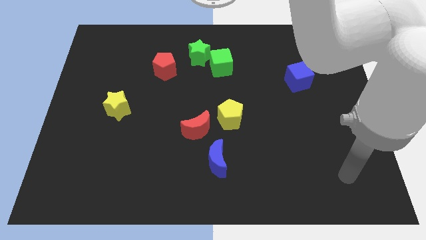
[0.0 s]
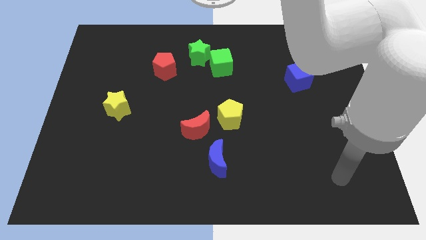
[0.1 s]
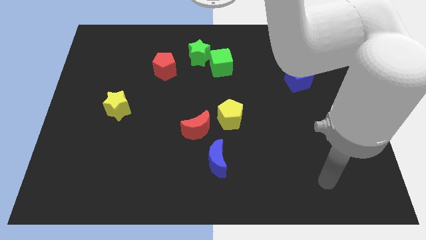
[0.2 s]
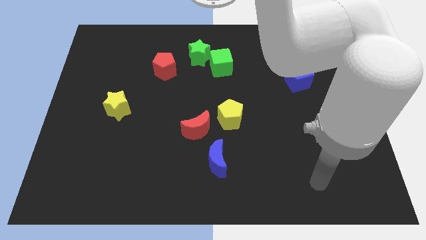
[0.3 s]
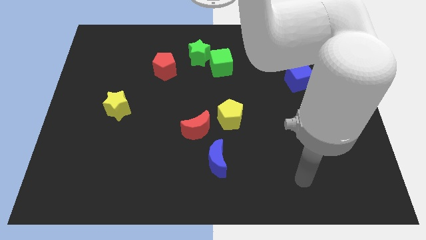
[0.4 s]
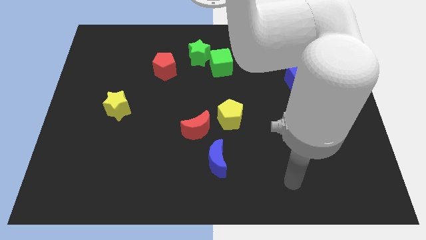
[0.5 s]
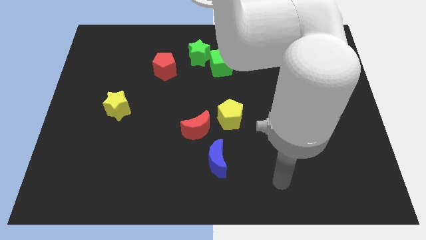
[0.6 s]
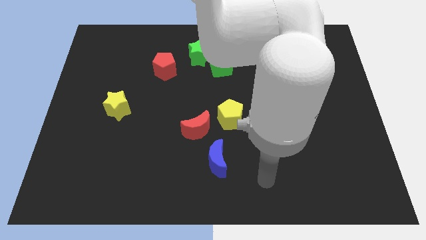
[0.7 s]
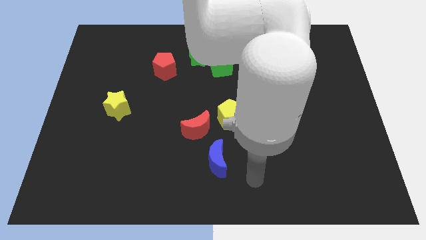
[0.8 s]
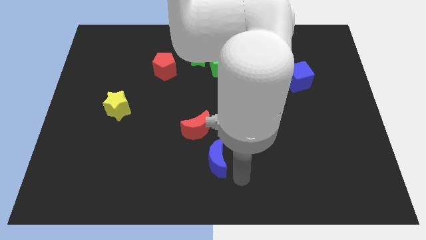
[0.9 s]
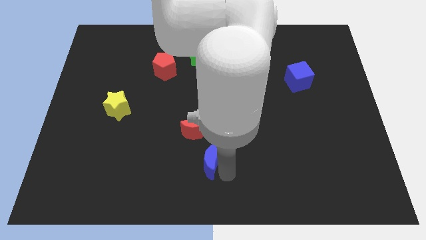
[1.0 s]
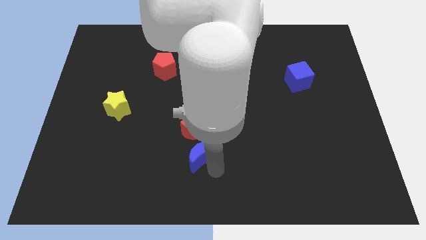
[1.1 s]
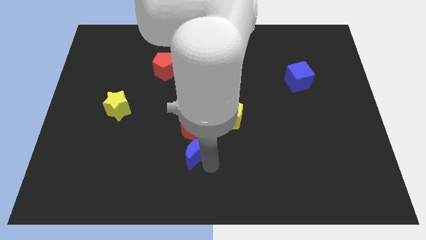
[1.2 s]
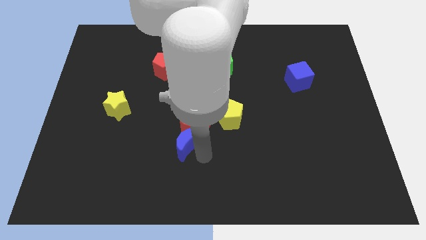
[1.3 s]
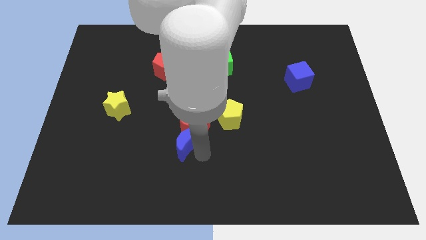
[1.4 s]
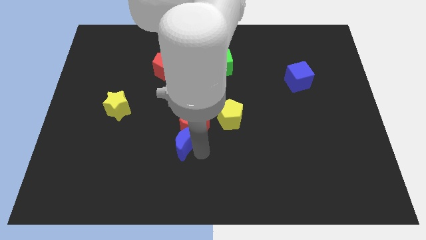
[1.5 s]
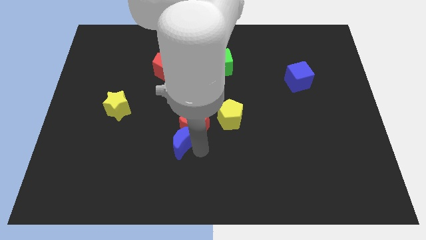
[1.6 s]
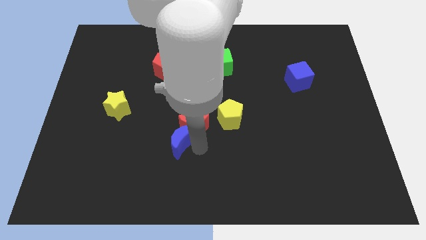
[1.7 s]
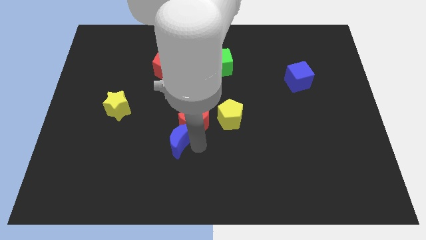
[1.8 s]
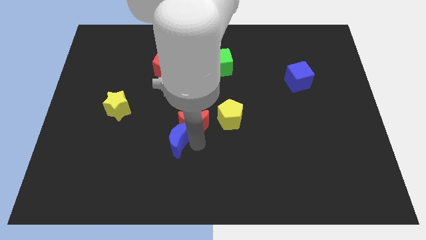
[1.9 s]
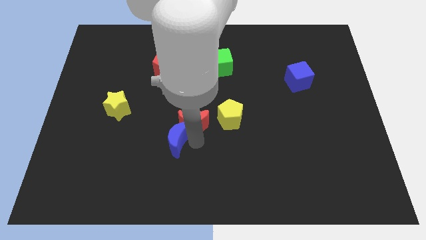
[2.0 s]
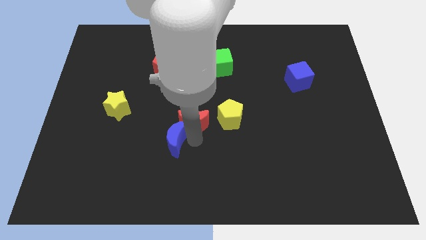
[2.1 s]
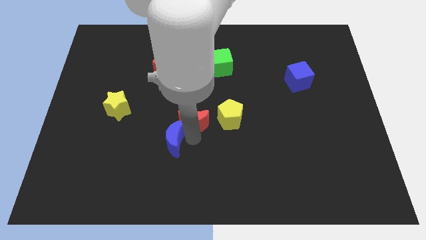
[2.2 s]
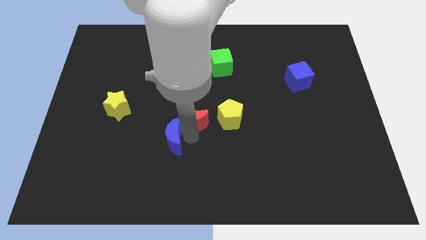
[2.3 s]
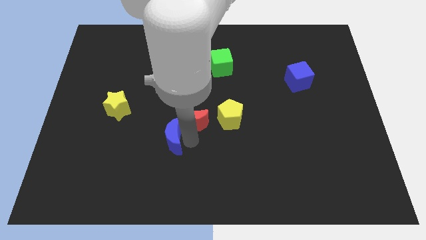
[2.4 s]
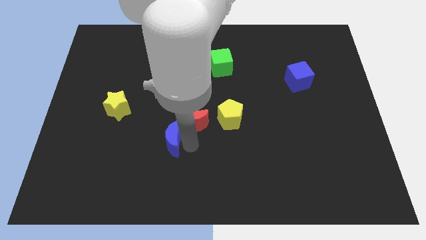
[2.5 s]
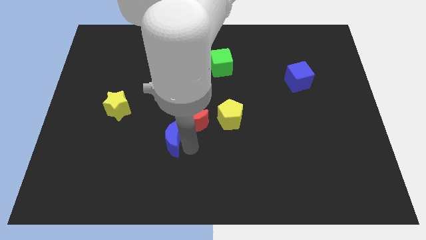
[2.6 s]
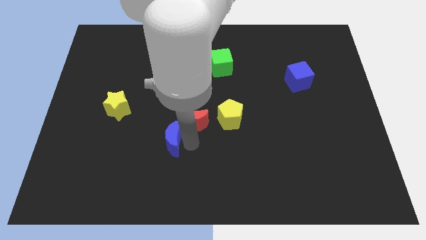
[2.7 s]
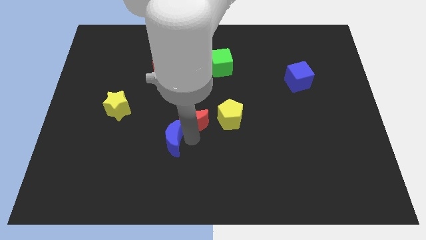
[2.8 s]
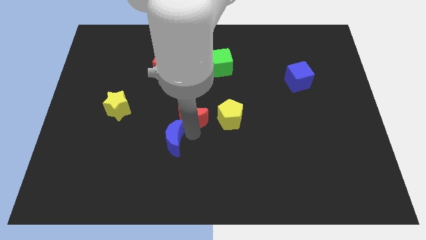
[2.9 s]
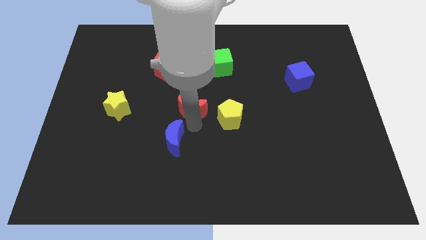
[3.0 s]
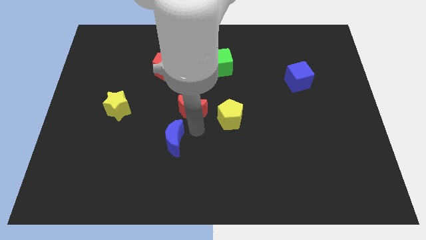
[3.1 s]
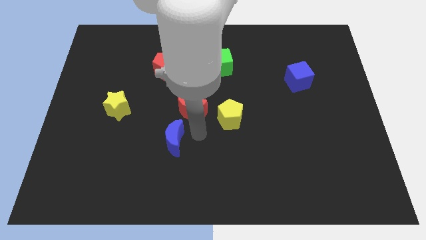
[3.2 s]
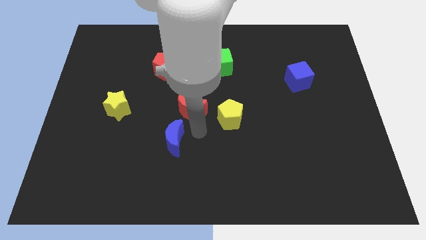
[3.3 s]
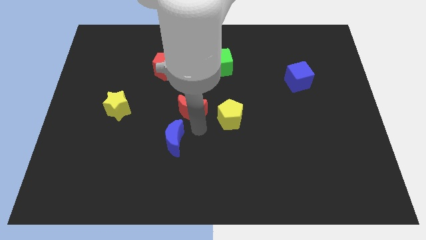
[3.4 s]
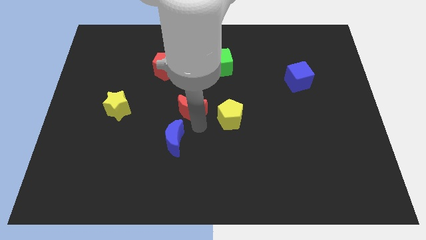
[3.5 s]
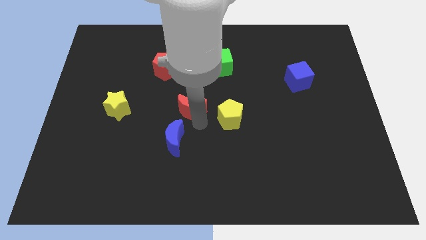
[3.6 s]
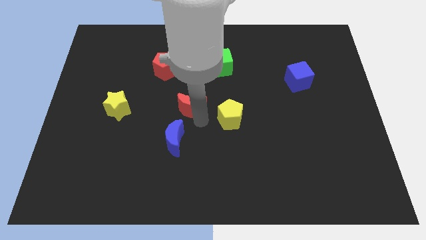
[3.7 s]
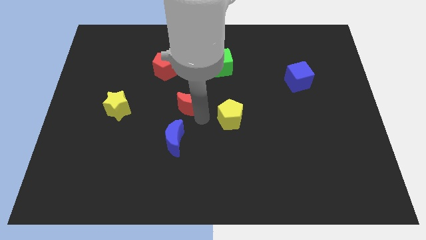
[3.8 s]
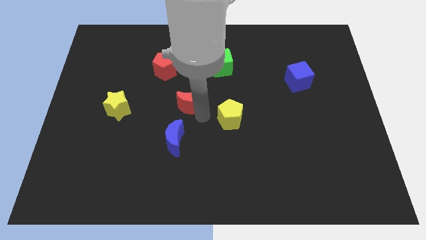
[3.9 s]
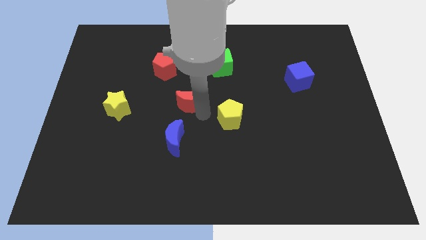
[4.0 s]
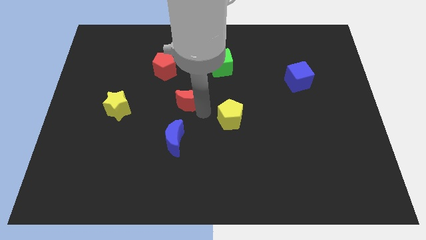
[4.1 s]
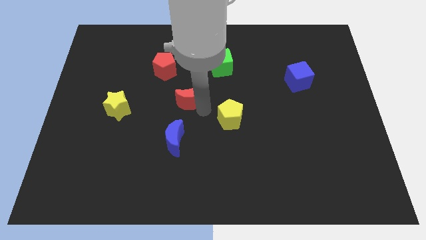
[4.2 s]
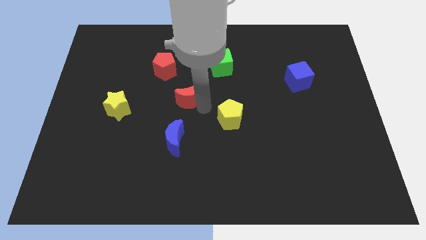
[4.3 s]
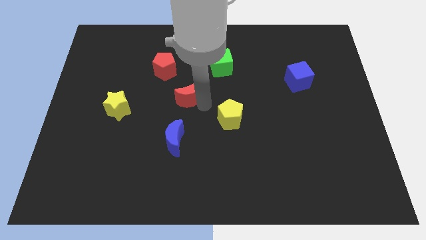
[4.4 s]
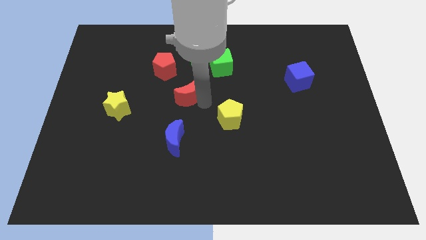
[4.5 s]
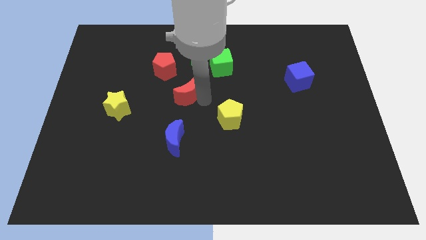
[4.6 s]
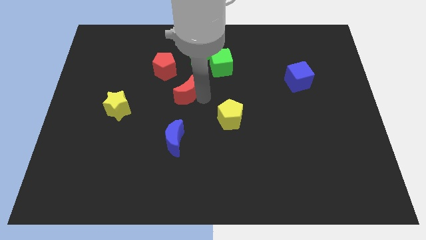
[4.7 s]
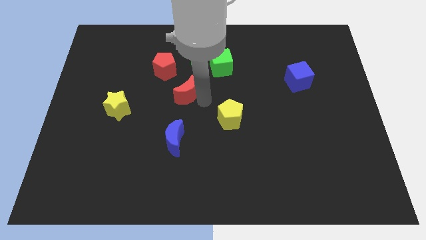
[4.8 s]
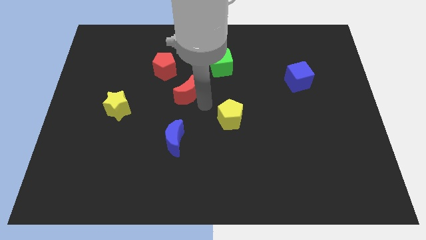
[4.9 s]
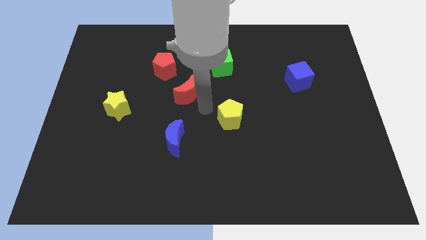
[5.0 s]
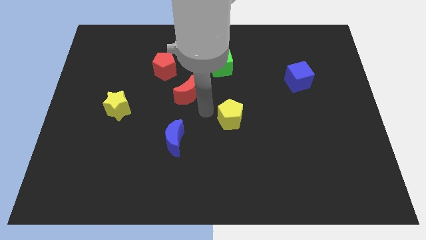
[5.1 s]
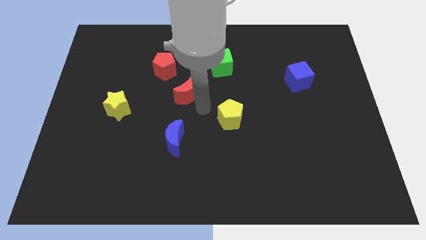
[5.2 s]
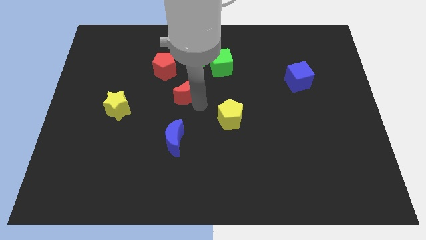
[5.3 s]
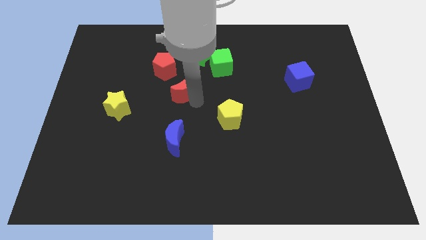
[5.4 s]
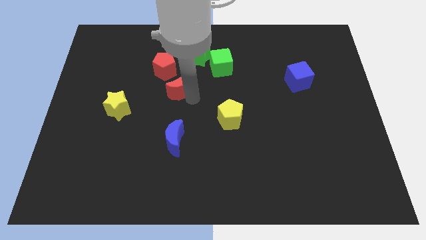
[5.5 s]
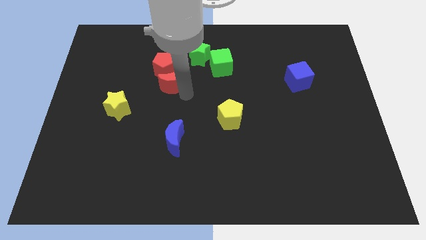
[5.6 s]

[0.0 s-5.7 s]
put the red moon to the red pentagon

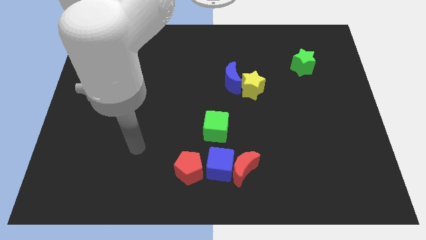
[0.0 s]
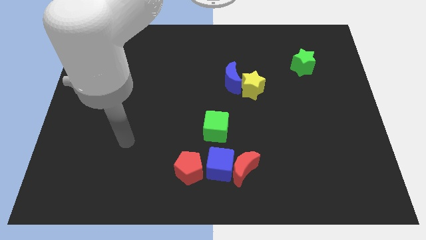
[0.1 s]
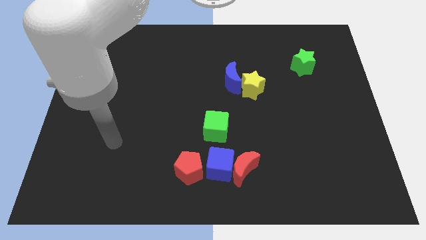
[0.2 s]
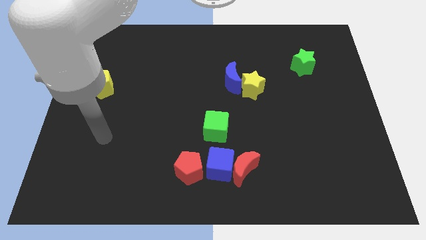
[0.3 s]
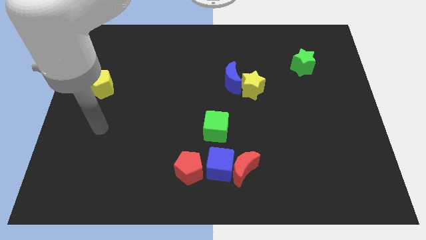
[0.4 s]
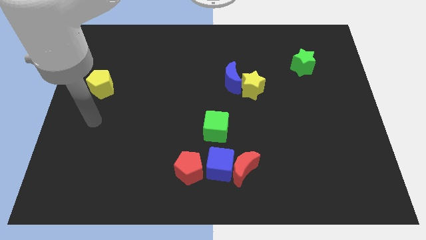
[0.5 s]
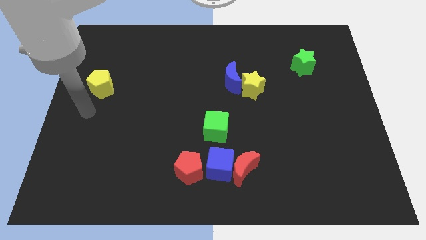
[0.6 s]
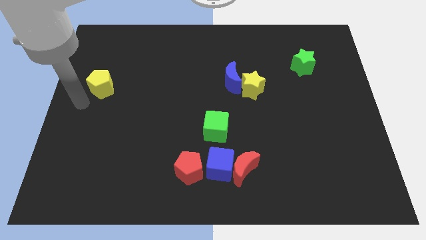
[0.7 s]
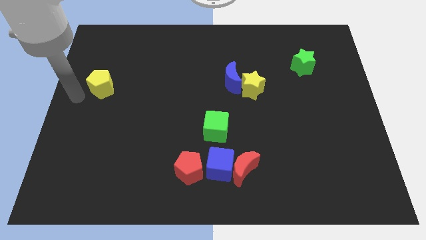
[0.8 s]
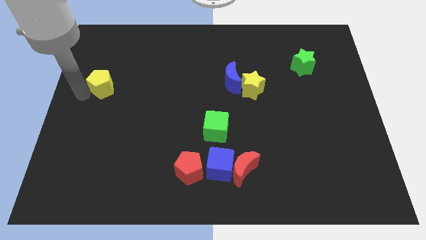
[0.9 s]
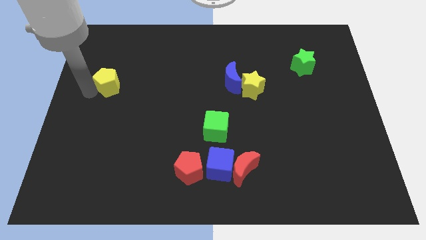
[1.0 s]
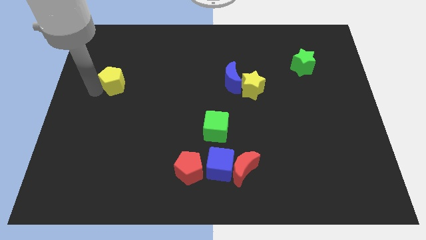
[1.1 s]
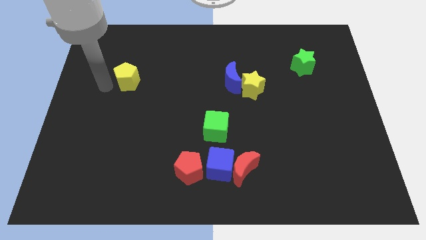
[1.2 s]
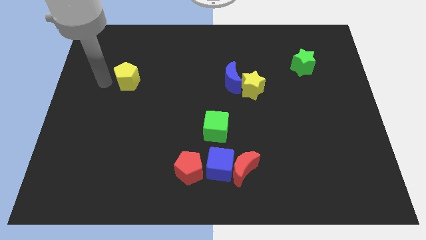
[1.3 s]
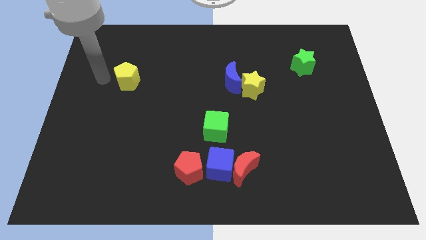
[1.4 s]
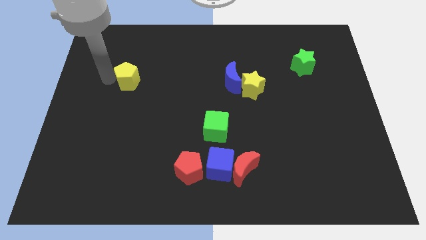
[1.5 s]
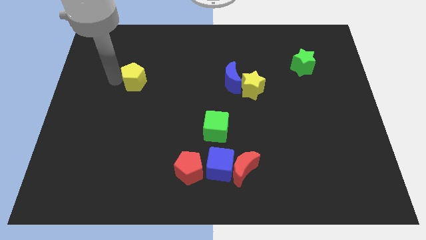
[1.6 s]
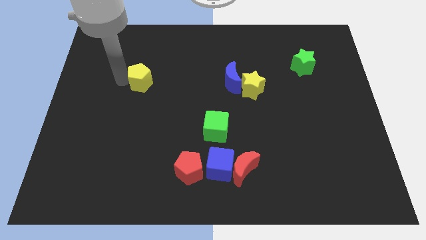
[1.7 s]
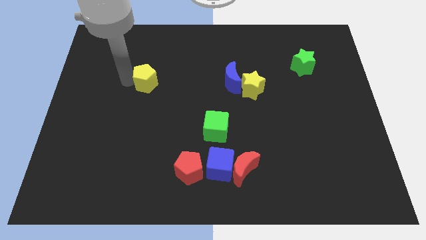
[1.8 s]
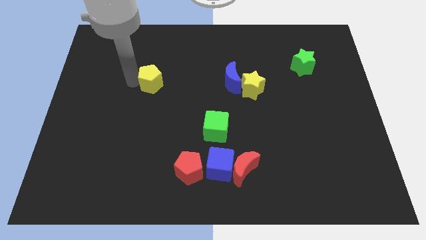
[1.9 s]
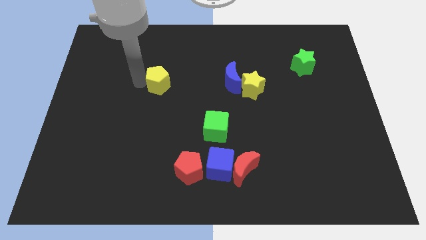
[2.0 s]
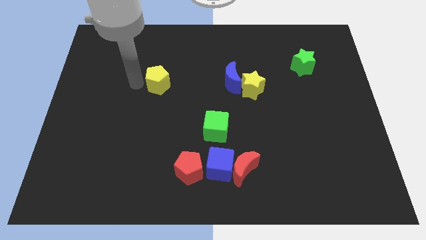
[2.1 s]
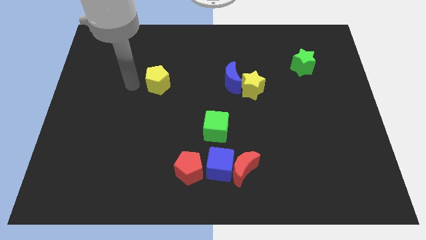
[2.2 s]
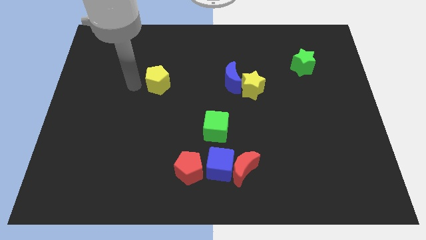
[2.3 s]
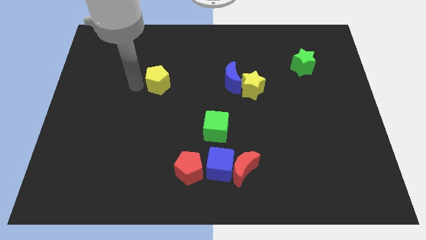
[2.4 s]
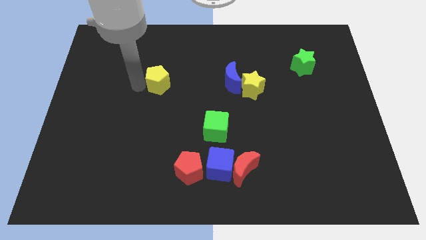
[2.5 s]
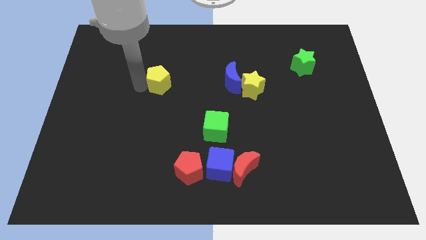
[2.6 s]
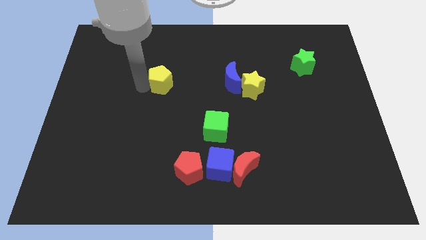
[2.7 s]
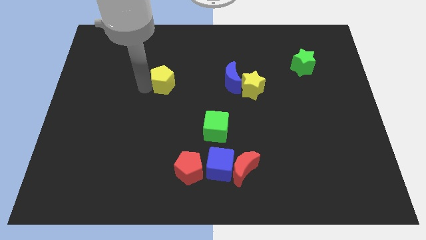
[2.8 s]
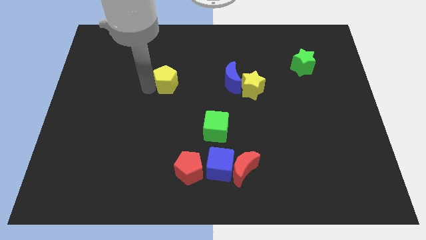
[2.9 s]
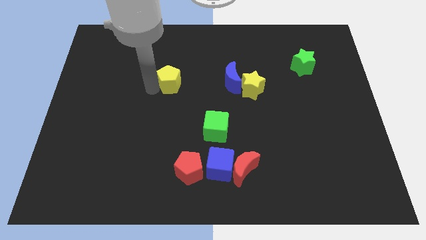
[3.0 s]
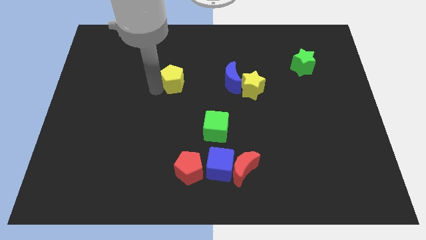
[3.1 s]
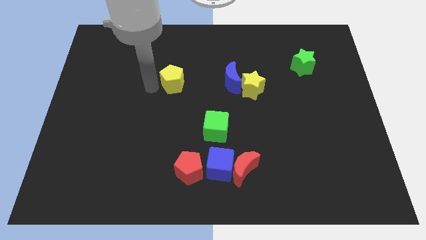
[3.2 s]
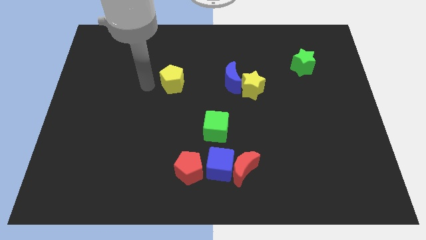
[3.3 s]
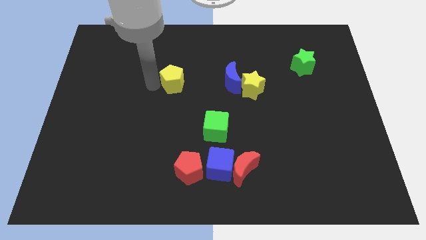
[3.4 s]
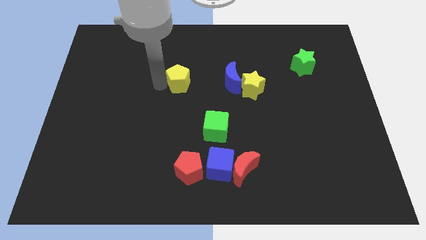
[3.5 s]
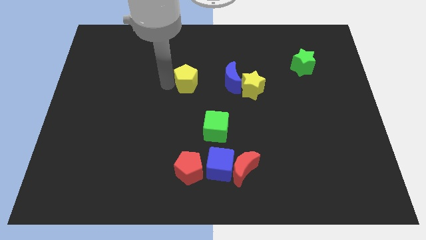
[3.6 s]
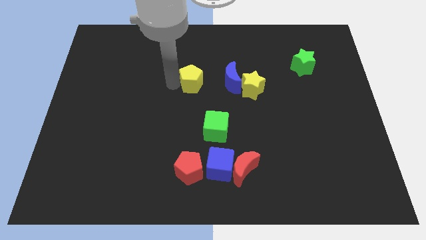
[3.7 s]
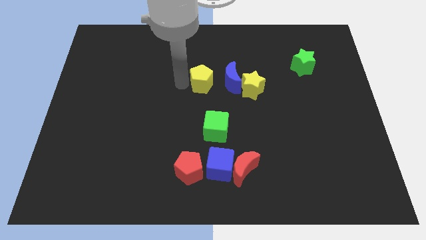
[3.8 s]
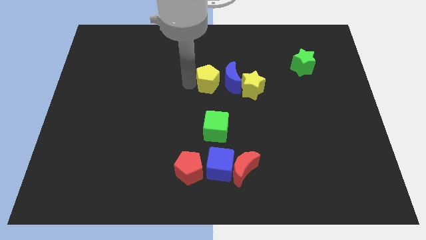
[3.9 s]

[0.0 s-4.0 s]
put the yellow pentagon towards the blue moon
